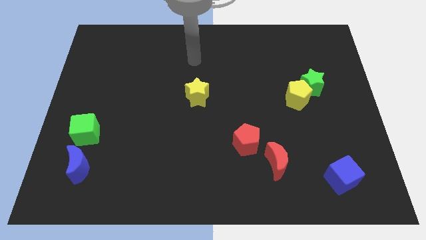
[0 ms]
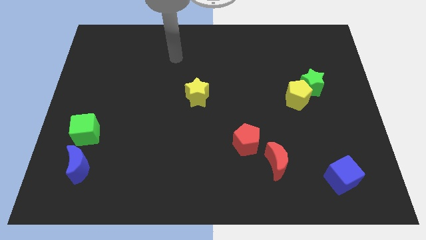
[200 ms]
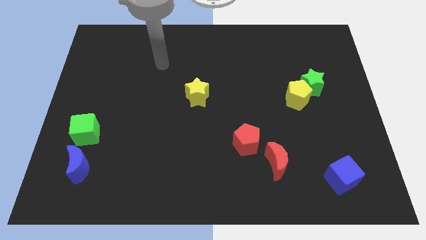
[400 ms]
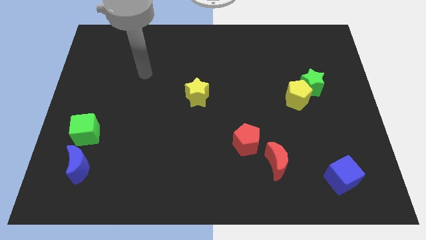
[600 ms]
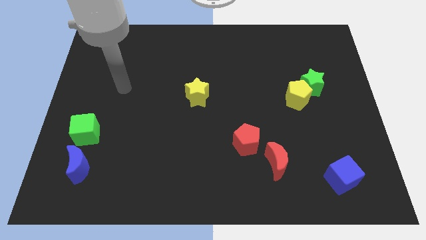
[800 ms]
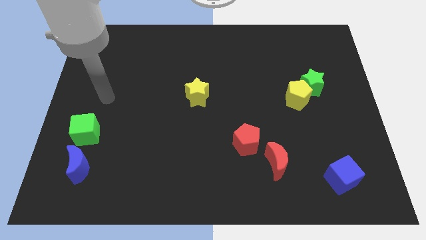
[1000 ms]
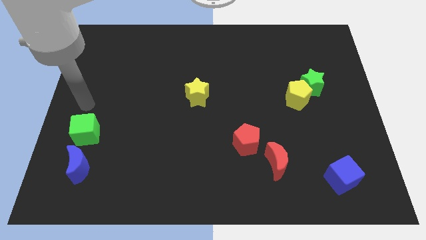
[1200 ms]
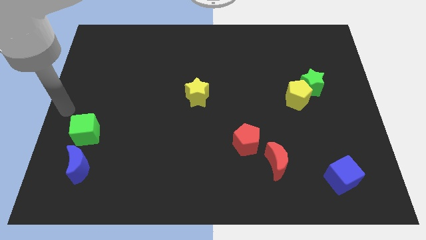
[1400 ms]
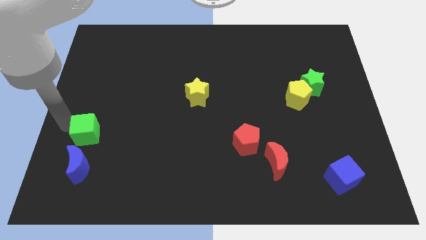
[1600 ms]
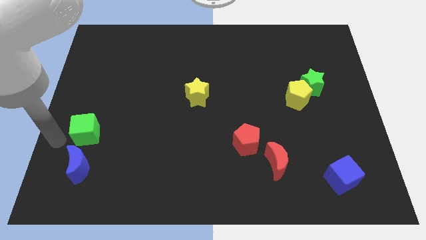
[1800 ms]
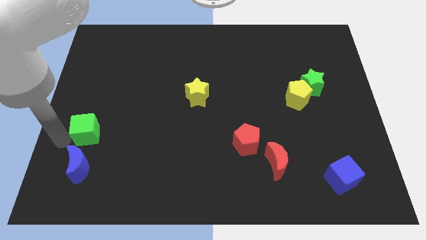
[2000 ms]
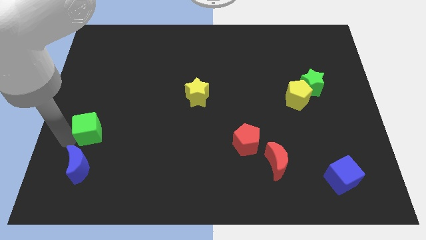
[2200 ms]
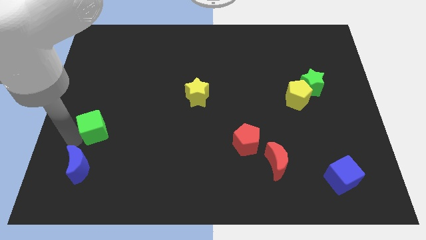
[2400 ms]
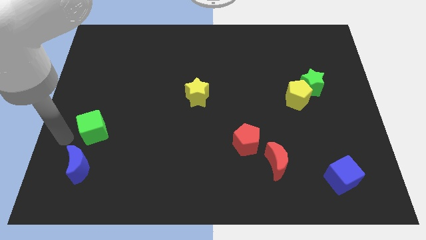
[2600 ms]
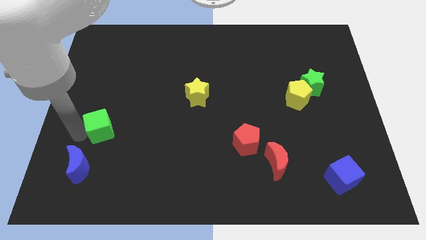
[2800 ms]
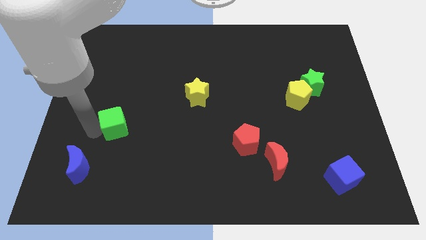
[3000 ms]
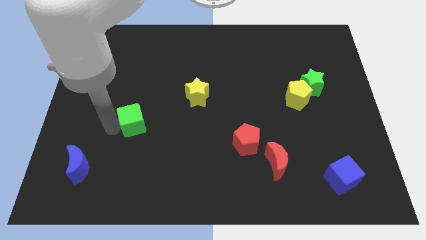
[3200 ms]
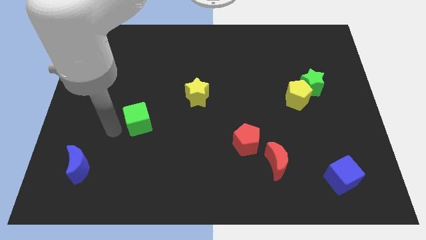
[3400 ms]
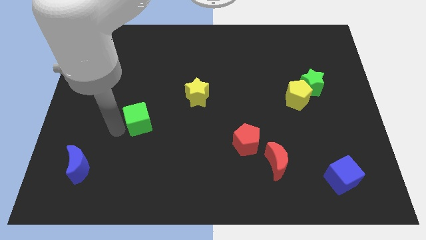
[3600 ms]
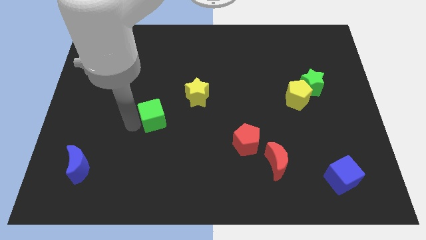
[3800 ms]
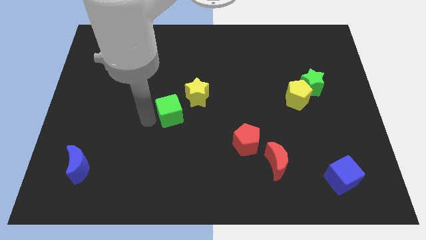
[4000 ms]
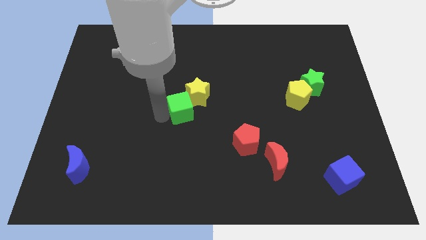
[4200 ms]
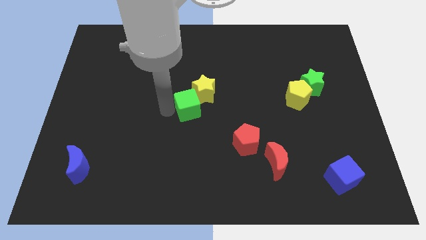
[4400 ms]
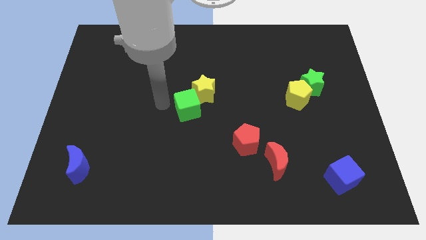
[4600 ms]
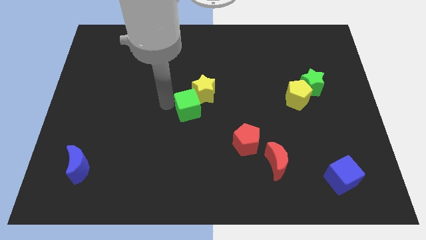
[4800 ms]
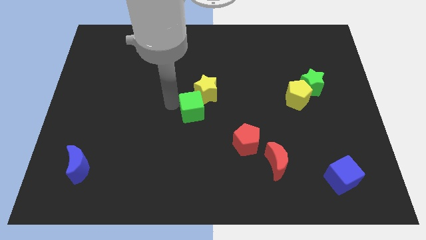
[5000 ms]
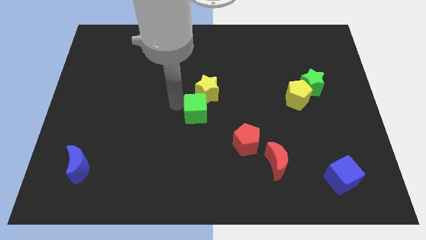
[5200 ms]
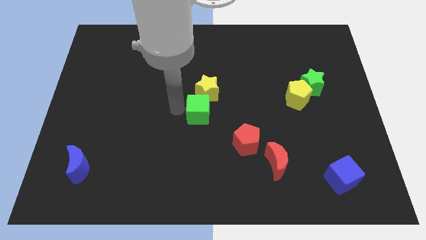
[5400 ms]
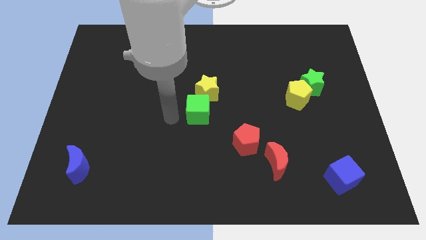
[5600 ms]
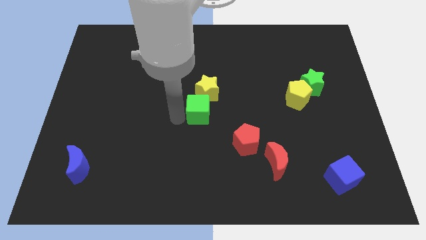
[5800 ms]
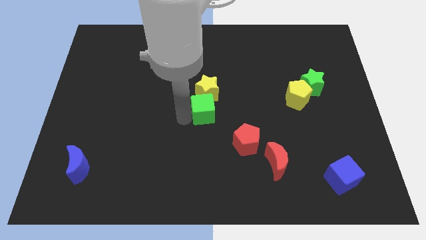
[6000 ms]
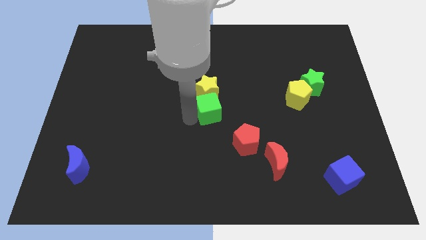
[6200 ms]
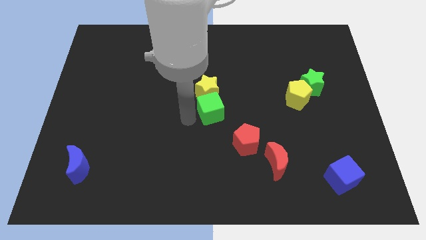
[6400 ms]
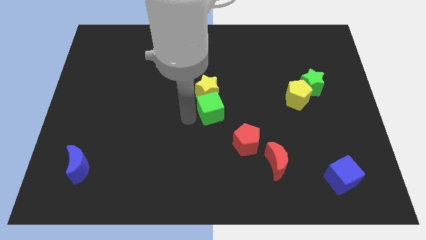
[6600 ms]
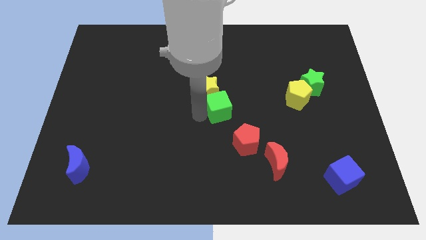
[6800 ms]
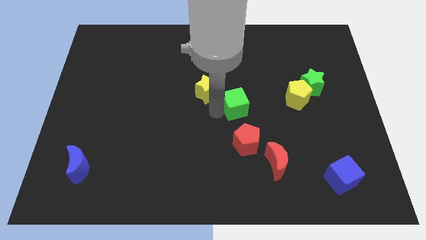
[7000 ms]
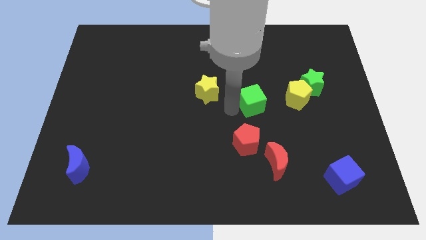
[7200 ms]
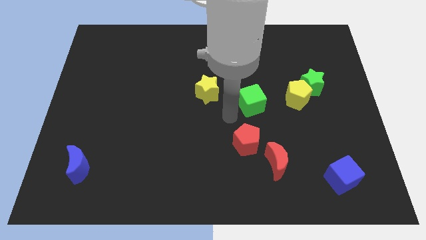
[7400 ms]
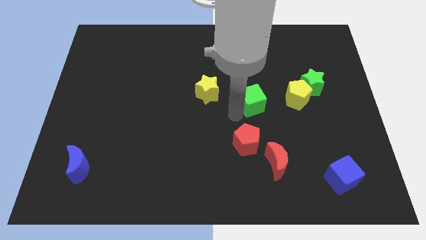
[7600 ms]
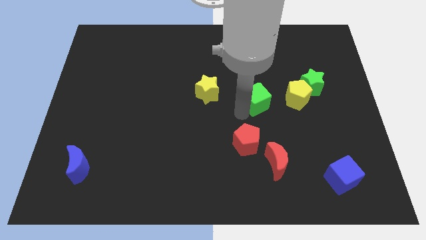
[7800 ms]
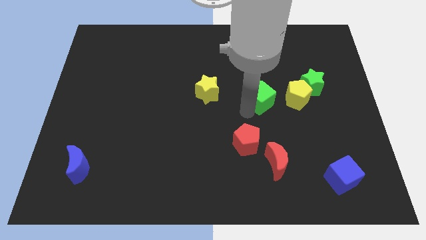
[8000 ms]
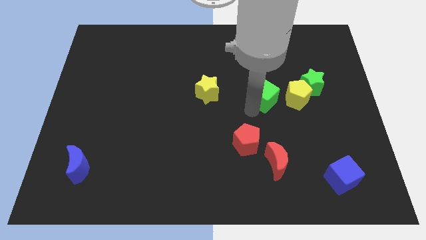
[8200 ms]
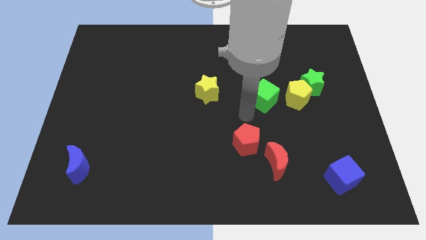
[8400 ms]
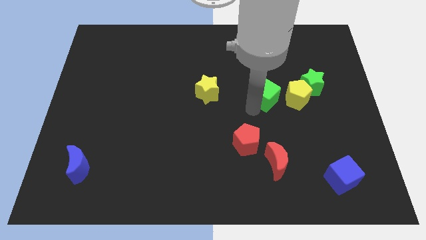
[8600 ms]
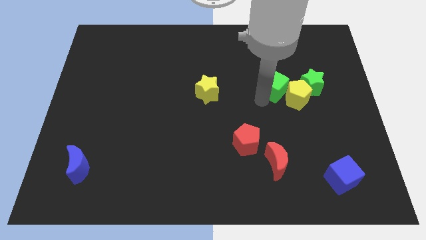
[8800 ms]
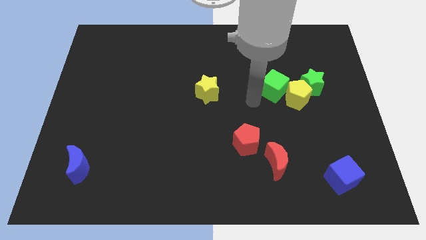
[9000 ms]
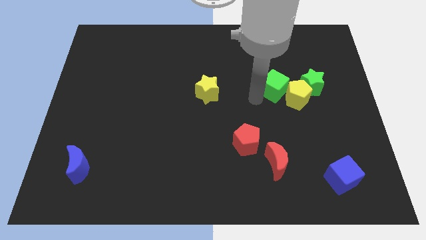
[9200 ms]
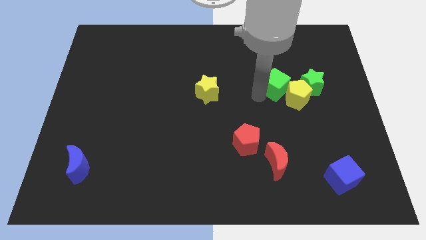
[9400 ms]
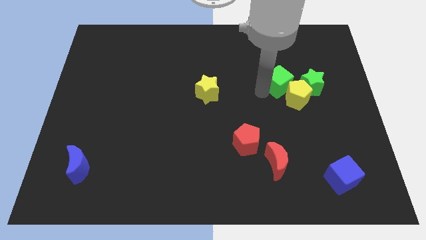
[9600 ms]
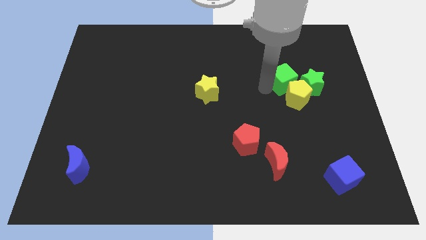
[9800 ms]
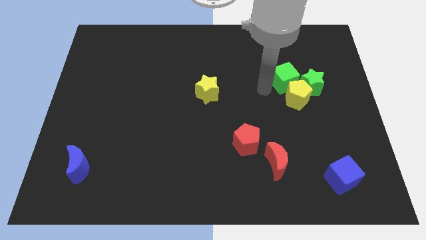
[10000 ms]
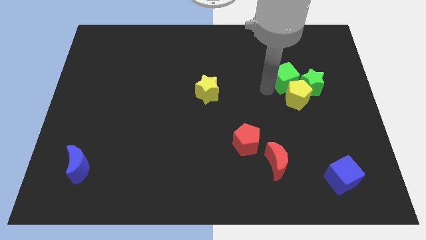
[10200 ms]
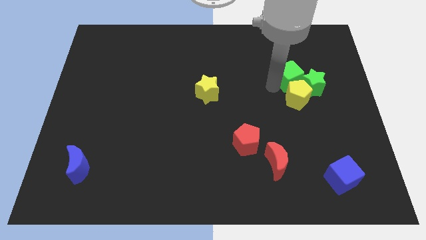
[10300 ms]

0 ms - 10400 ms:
push the green cube towards the green star

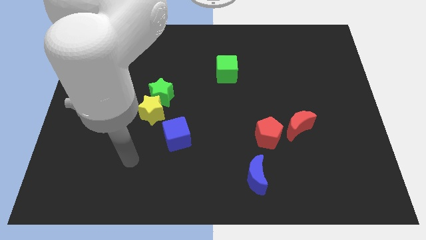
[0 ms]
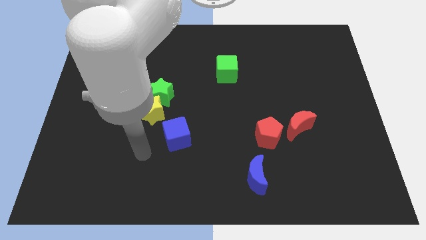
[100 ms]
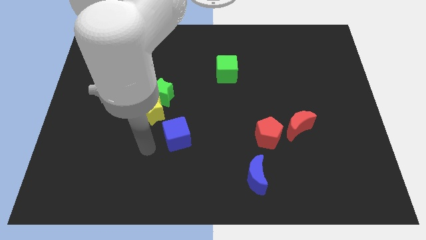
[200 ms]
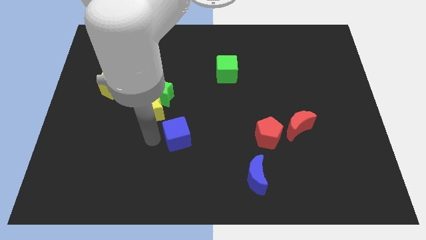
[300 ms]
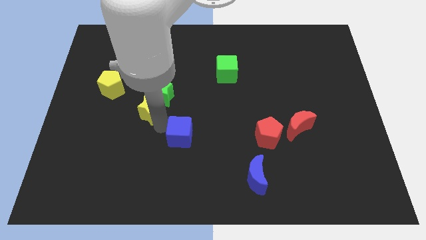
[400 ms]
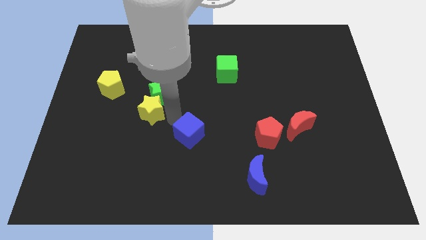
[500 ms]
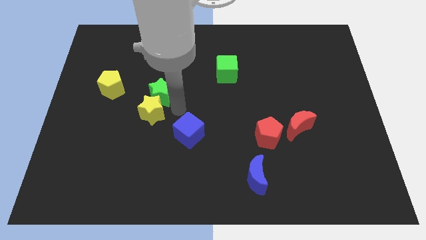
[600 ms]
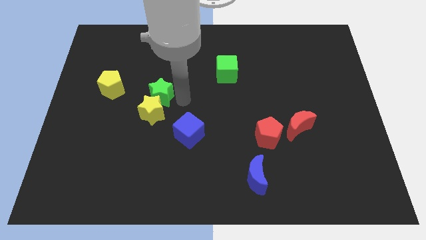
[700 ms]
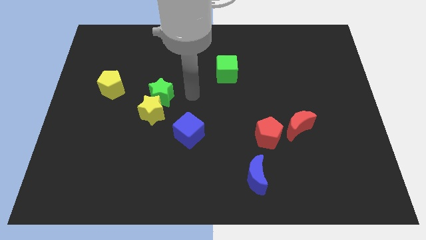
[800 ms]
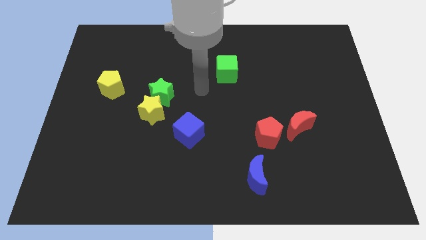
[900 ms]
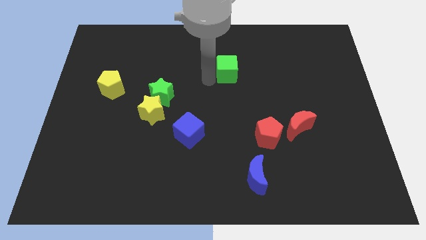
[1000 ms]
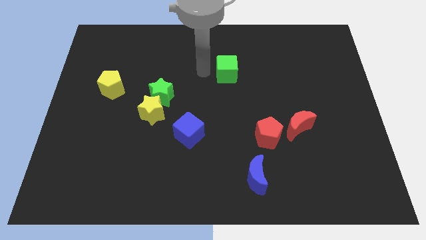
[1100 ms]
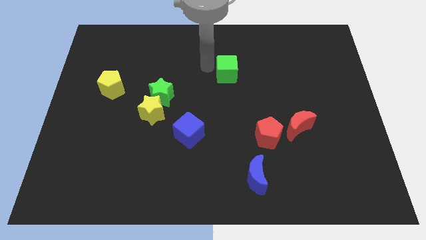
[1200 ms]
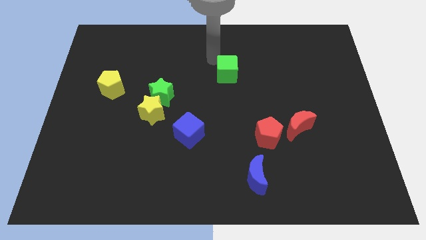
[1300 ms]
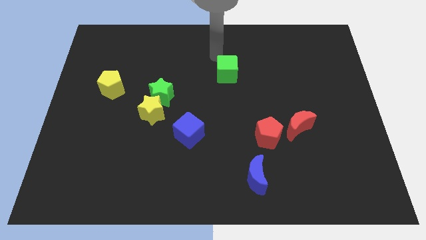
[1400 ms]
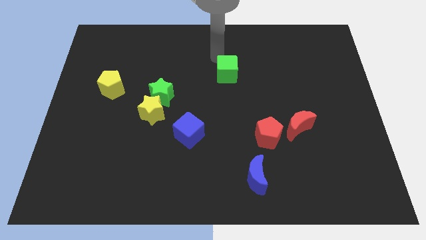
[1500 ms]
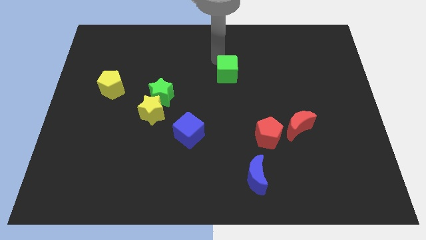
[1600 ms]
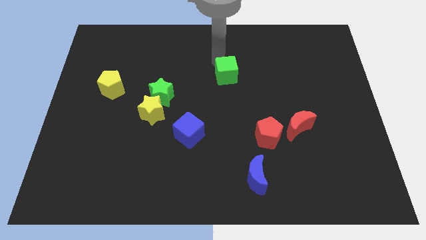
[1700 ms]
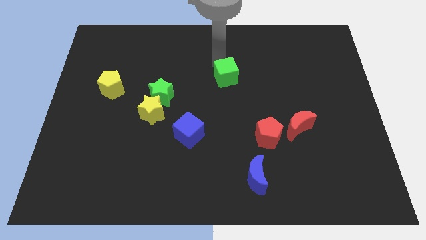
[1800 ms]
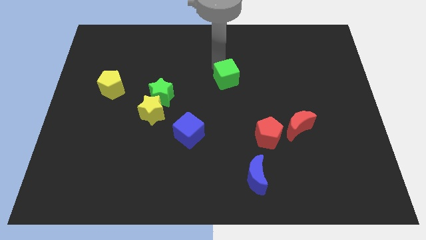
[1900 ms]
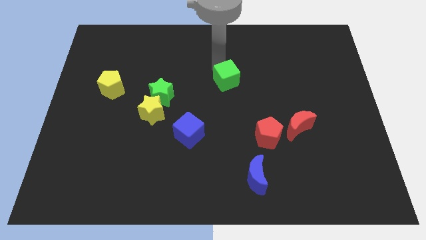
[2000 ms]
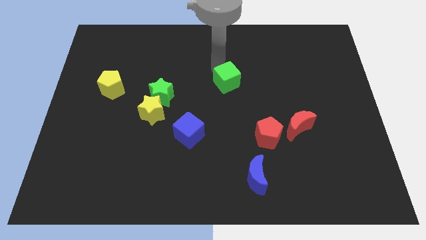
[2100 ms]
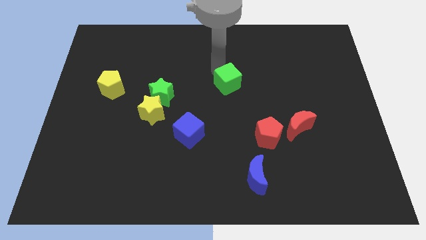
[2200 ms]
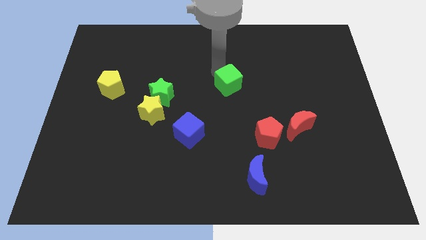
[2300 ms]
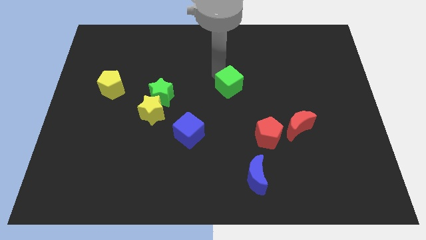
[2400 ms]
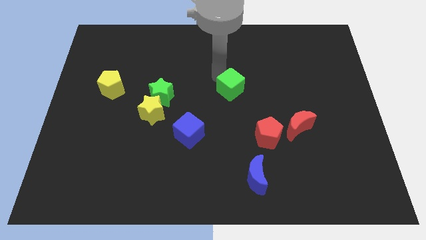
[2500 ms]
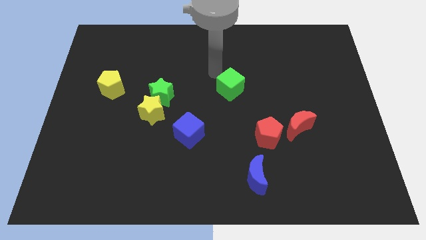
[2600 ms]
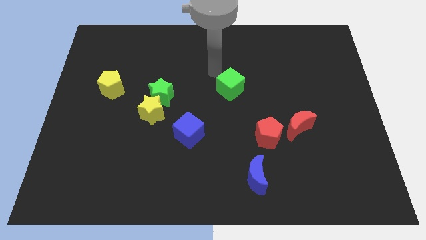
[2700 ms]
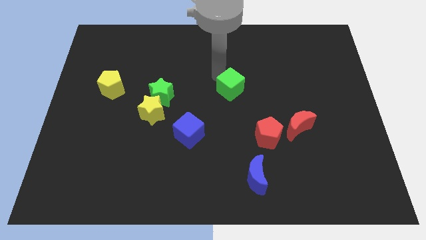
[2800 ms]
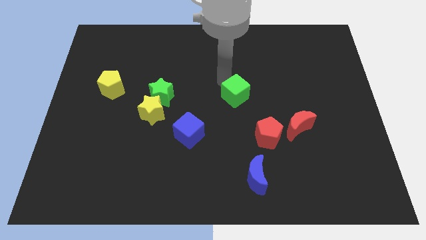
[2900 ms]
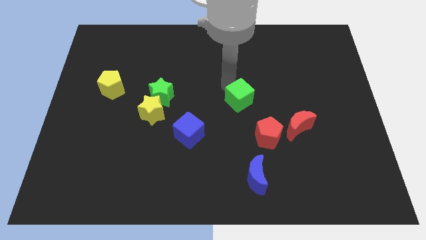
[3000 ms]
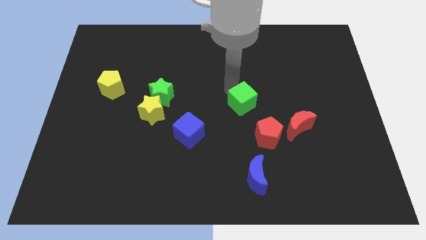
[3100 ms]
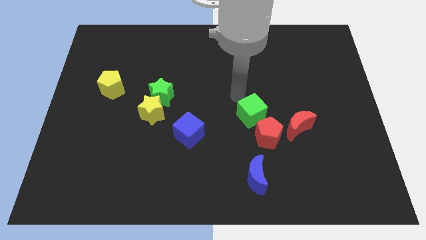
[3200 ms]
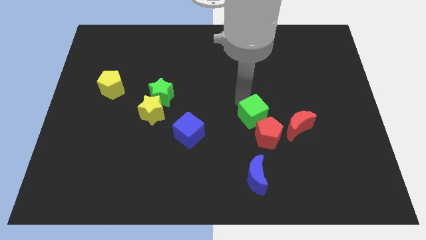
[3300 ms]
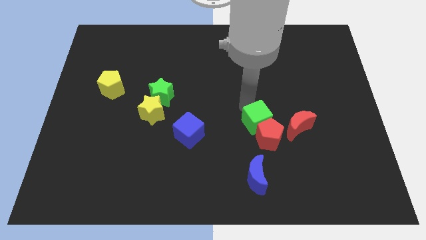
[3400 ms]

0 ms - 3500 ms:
move the green cube to the red pentagon
